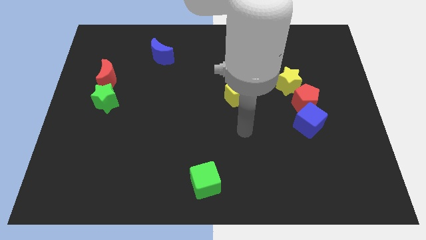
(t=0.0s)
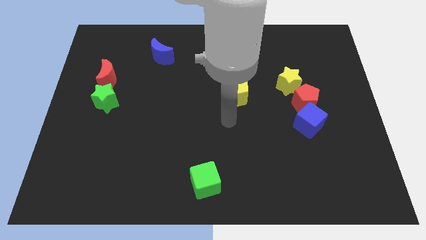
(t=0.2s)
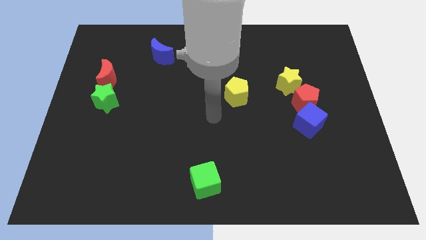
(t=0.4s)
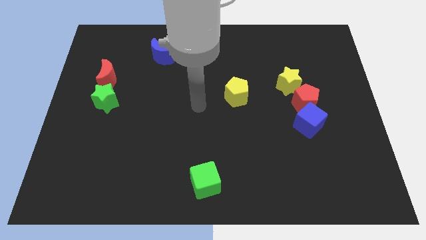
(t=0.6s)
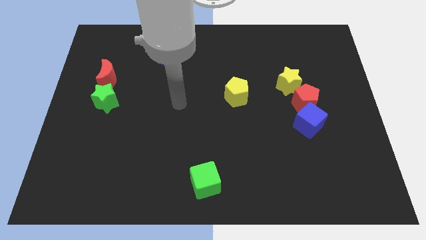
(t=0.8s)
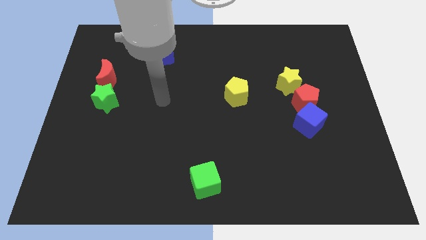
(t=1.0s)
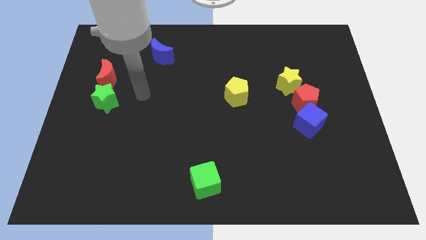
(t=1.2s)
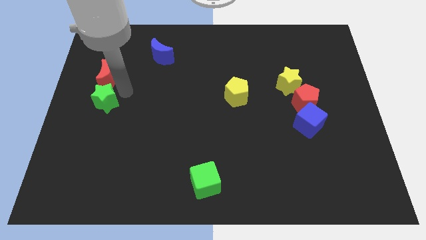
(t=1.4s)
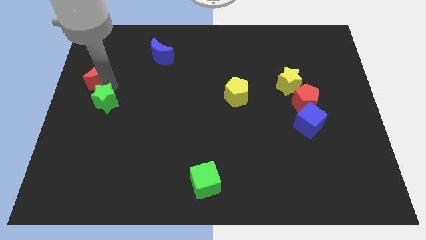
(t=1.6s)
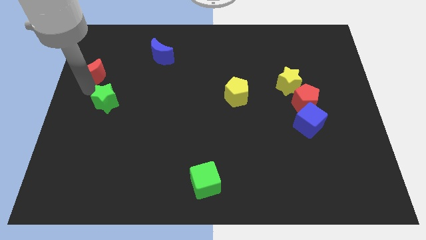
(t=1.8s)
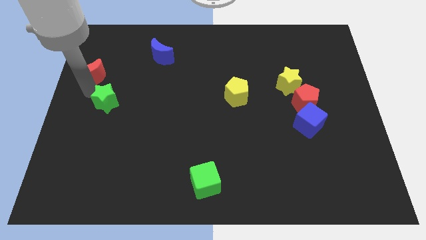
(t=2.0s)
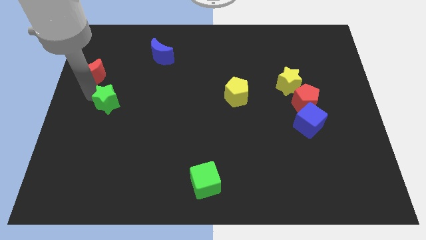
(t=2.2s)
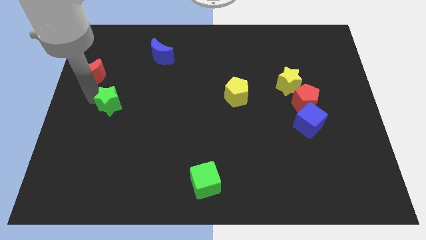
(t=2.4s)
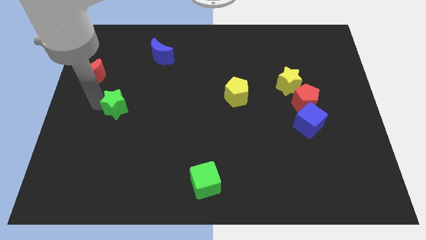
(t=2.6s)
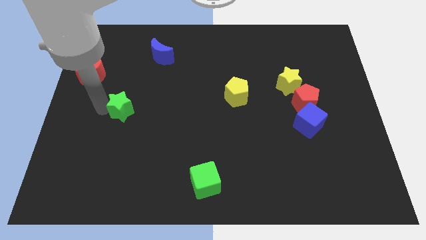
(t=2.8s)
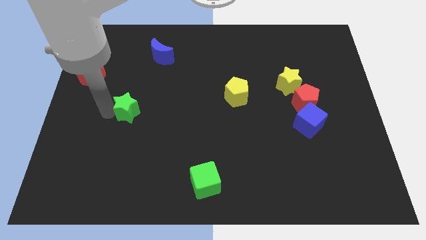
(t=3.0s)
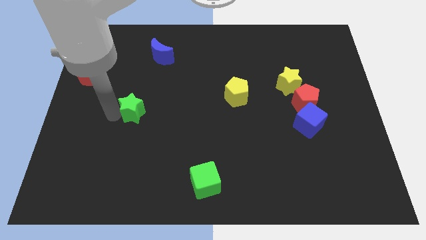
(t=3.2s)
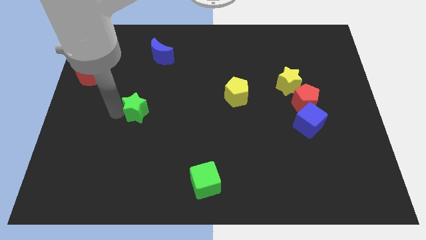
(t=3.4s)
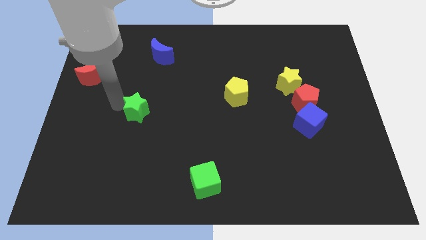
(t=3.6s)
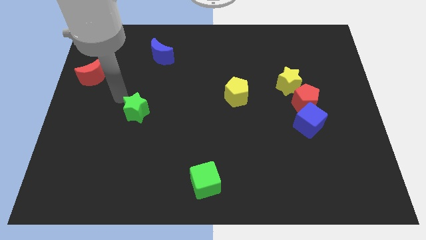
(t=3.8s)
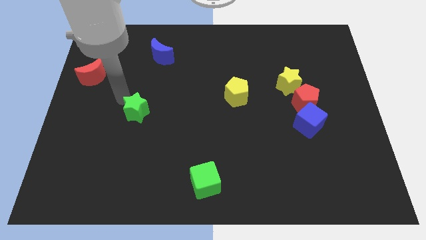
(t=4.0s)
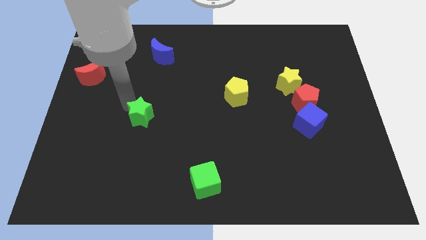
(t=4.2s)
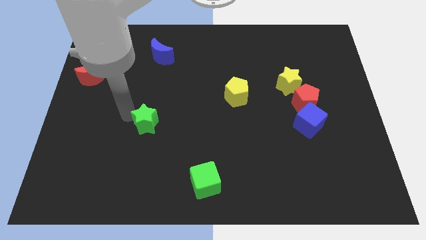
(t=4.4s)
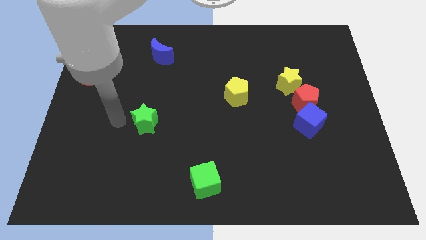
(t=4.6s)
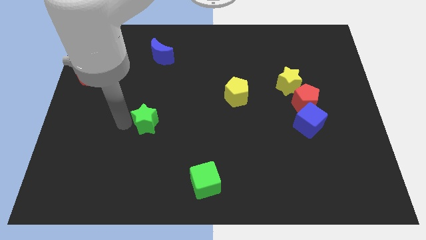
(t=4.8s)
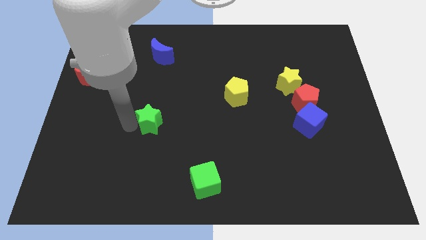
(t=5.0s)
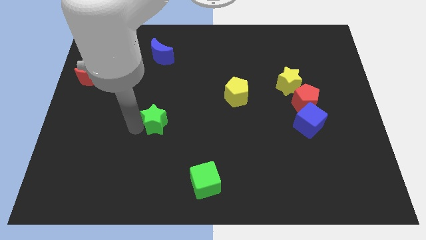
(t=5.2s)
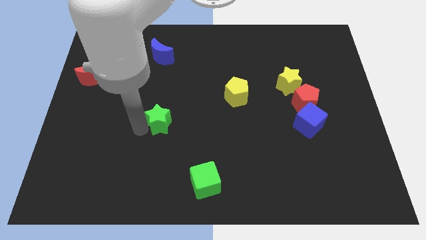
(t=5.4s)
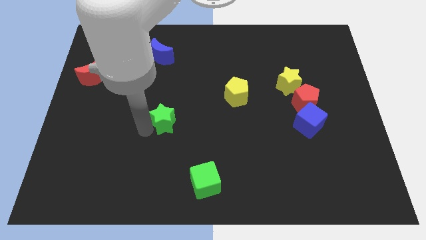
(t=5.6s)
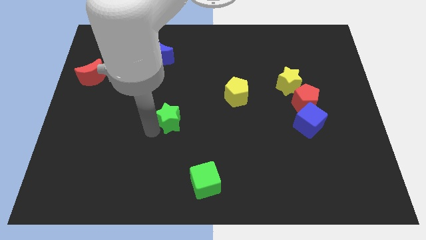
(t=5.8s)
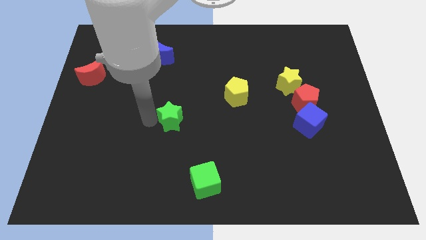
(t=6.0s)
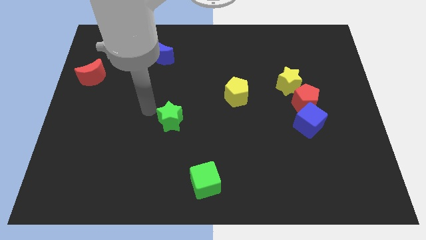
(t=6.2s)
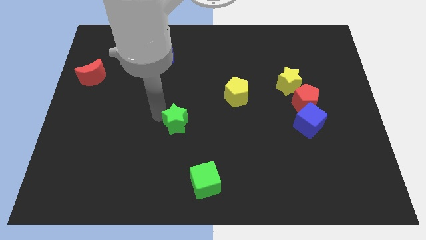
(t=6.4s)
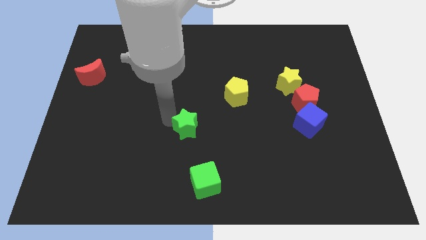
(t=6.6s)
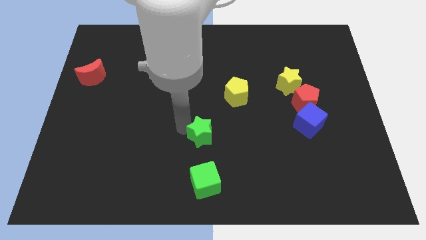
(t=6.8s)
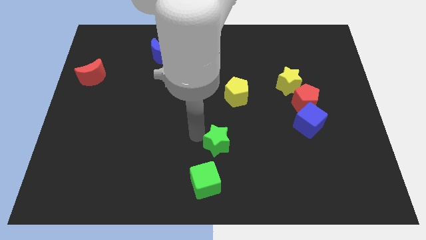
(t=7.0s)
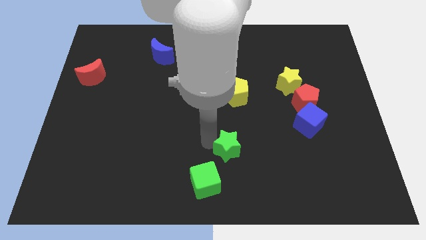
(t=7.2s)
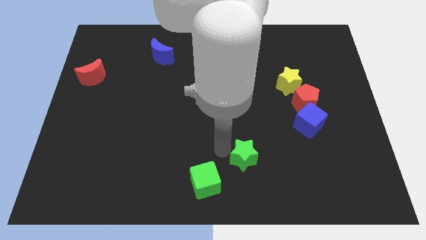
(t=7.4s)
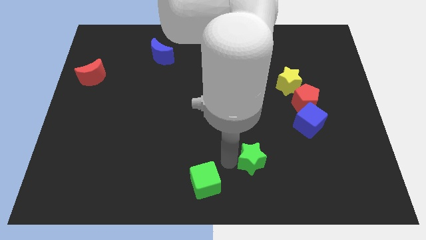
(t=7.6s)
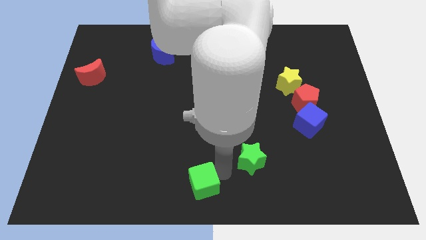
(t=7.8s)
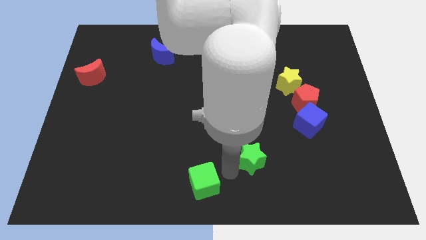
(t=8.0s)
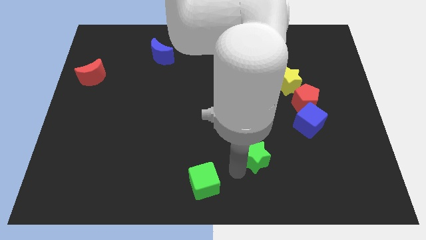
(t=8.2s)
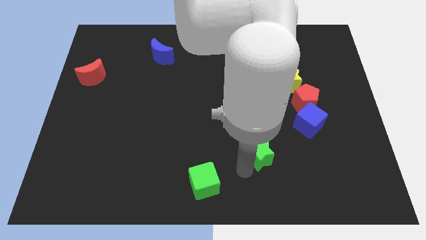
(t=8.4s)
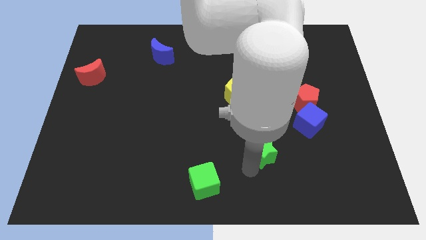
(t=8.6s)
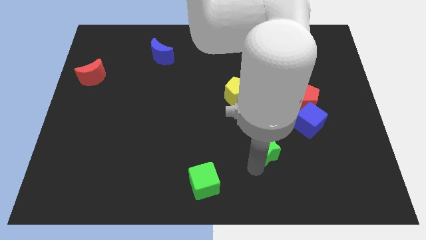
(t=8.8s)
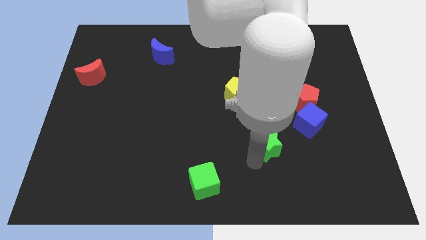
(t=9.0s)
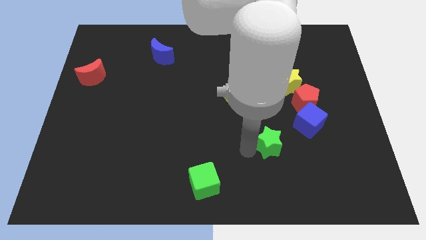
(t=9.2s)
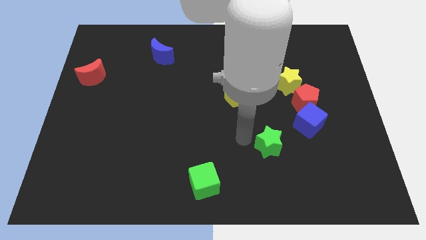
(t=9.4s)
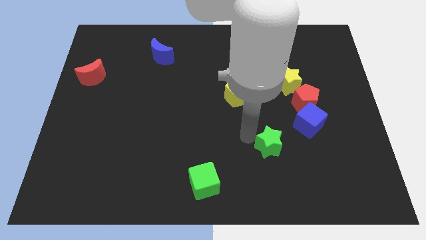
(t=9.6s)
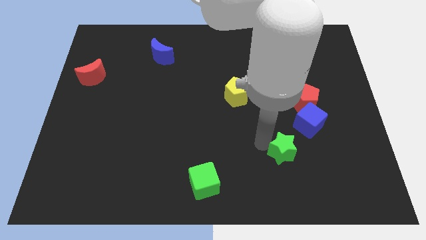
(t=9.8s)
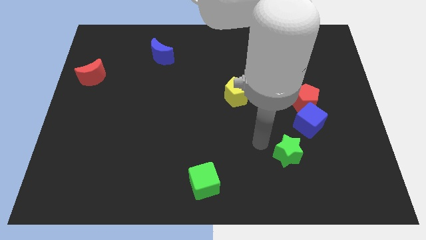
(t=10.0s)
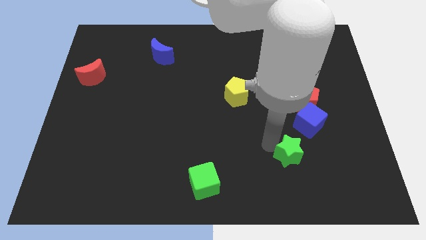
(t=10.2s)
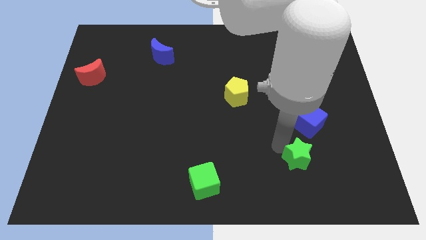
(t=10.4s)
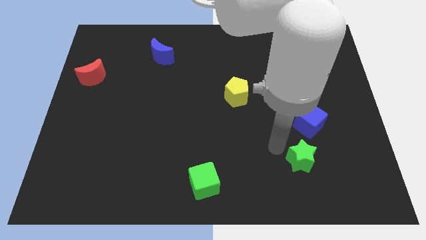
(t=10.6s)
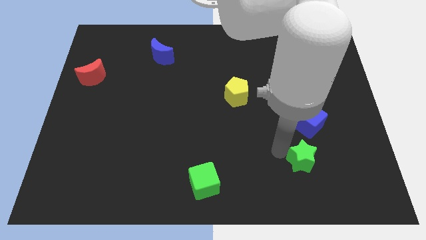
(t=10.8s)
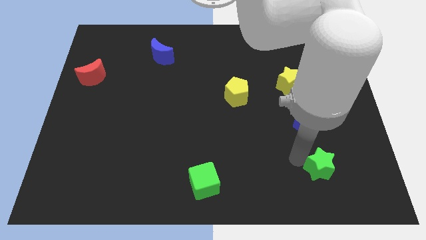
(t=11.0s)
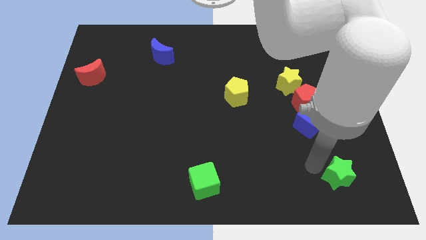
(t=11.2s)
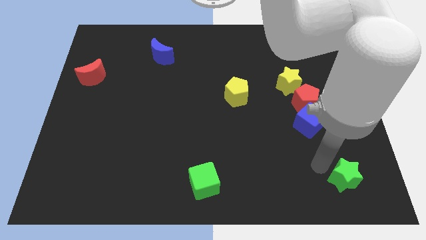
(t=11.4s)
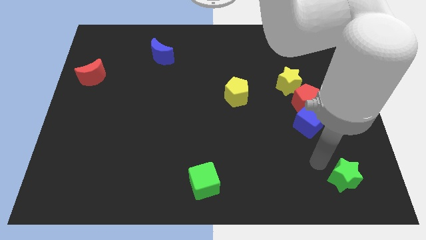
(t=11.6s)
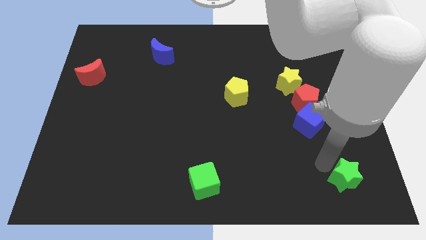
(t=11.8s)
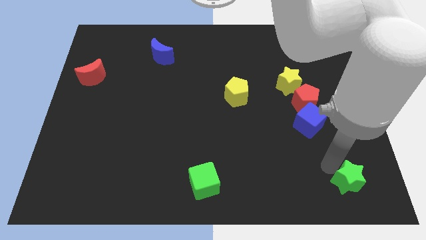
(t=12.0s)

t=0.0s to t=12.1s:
move the green star to the bottom right

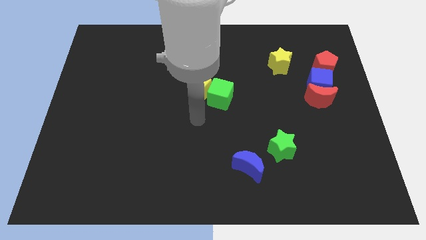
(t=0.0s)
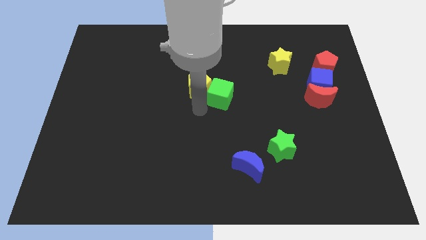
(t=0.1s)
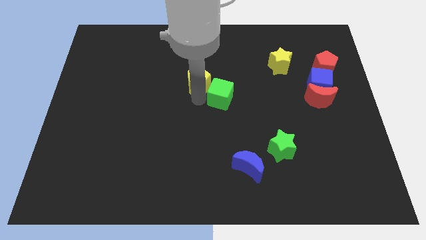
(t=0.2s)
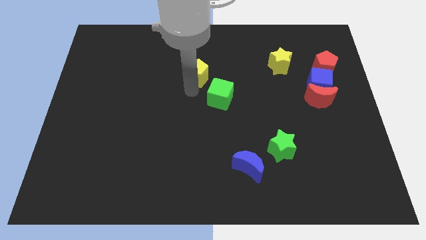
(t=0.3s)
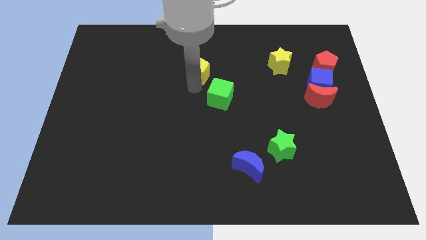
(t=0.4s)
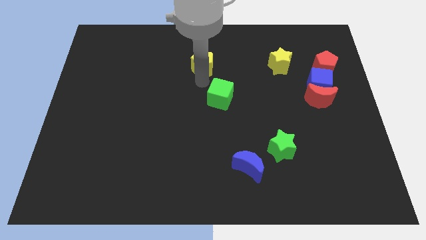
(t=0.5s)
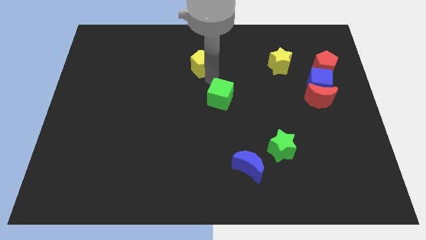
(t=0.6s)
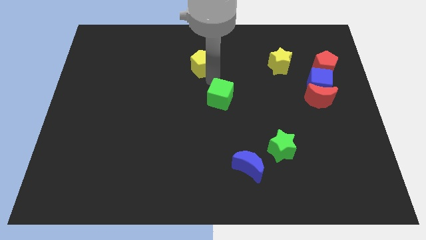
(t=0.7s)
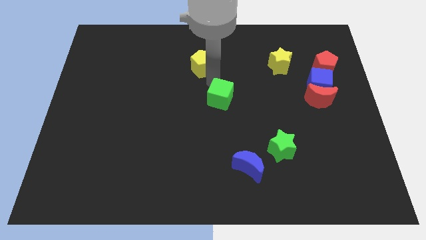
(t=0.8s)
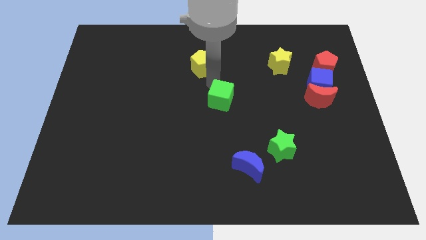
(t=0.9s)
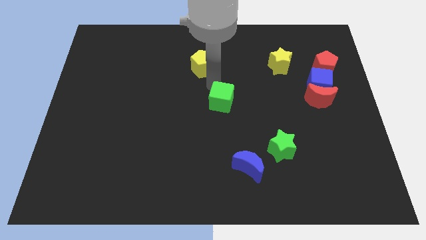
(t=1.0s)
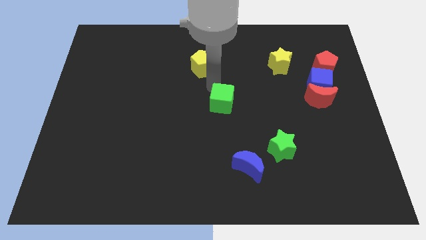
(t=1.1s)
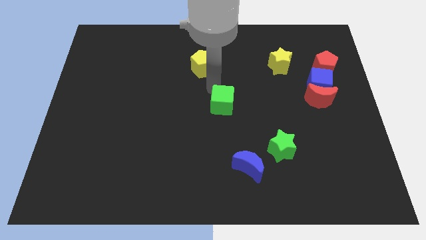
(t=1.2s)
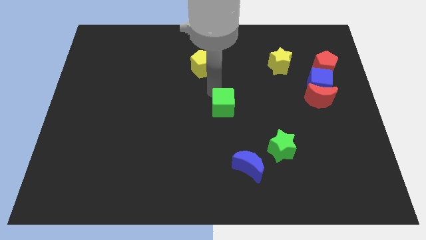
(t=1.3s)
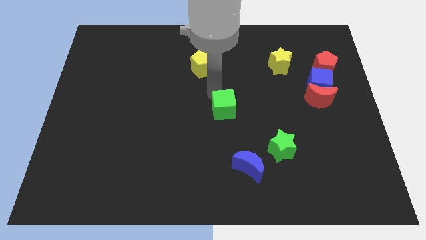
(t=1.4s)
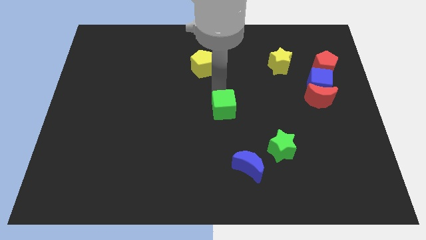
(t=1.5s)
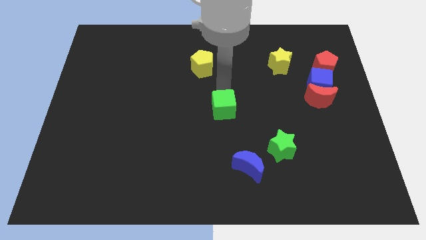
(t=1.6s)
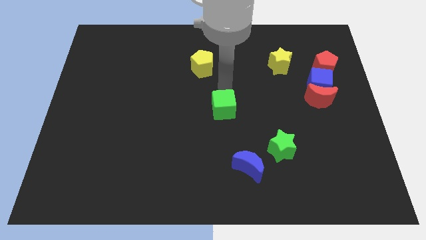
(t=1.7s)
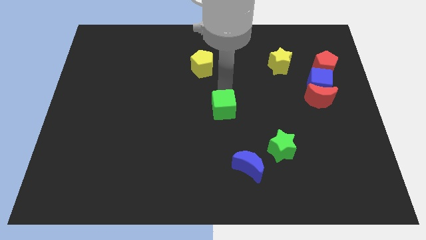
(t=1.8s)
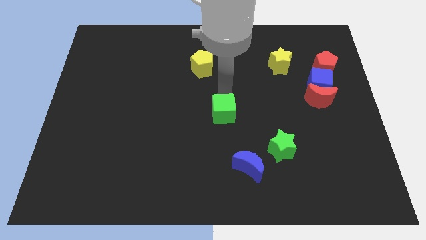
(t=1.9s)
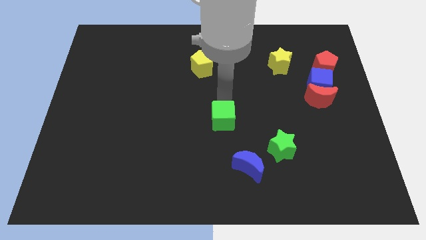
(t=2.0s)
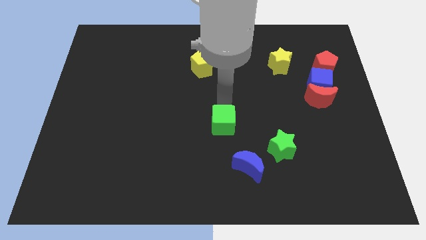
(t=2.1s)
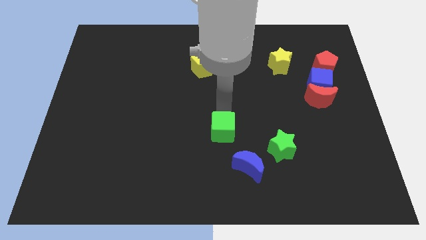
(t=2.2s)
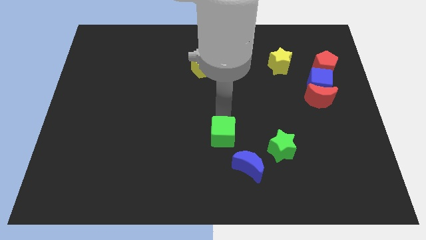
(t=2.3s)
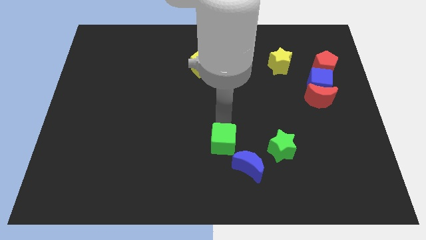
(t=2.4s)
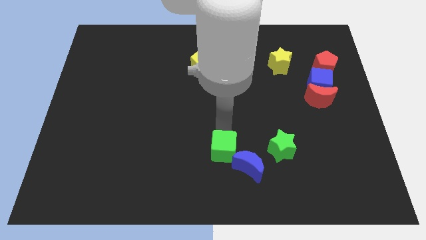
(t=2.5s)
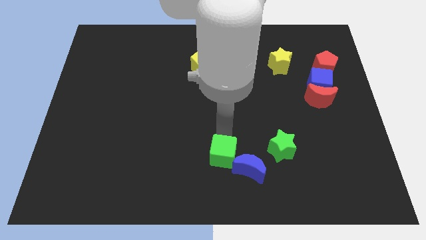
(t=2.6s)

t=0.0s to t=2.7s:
move the green cube to the bottom side
